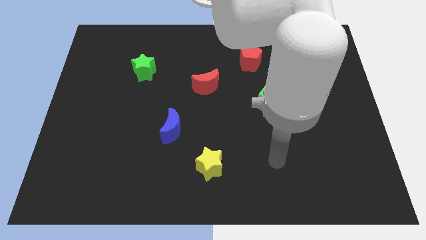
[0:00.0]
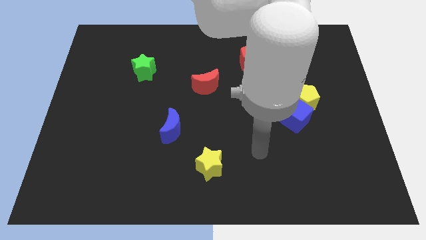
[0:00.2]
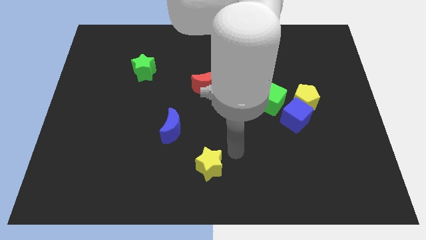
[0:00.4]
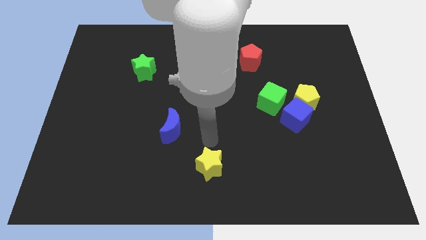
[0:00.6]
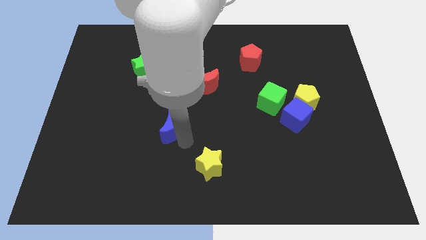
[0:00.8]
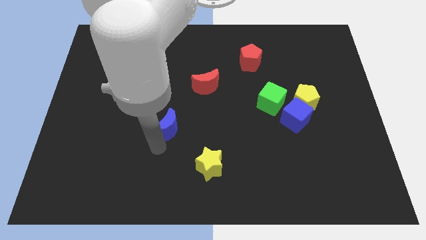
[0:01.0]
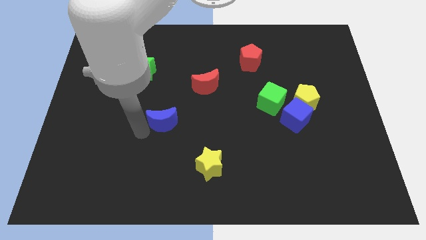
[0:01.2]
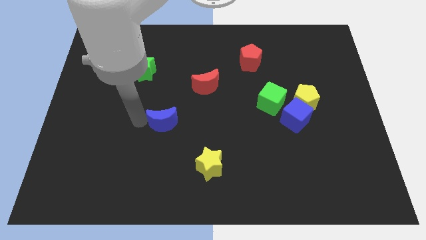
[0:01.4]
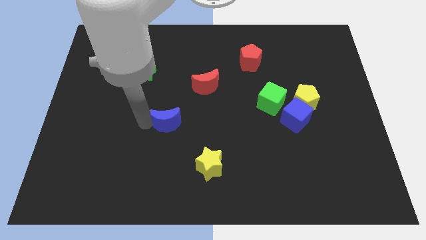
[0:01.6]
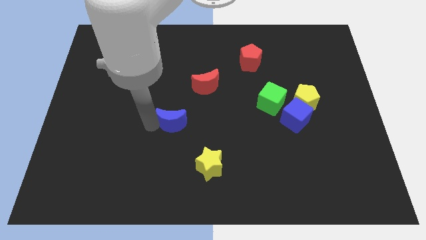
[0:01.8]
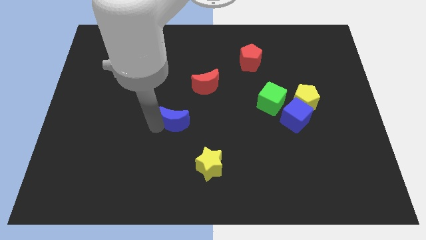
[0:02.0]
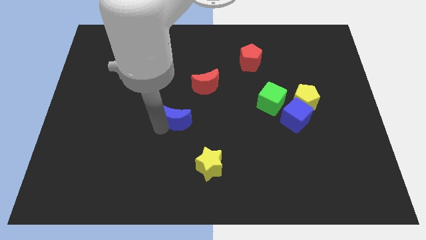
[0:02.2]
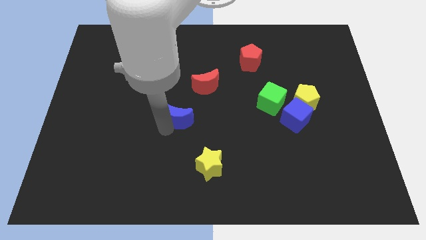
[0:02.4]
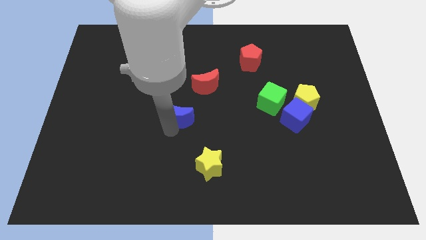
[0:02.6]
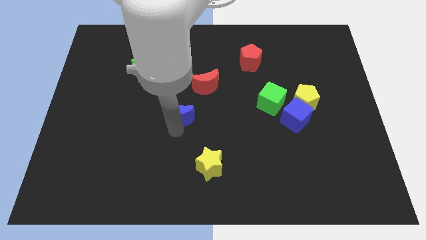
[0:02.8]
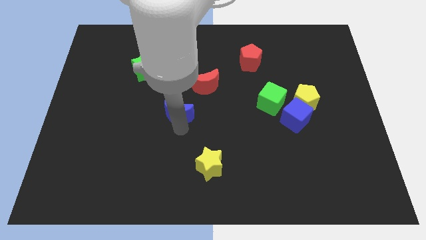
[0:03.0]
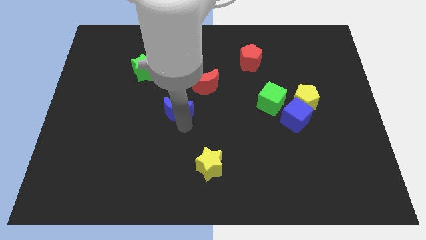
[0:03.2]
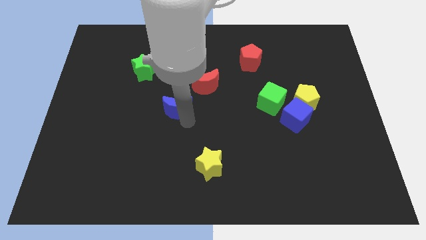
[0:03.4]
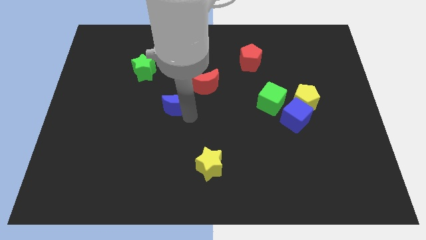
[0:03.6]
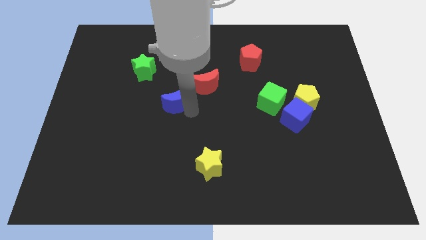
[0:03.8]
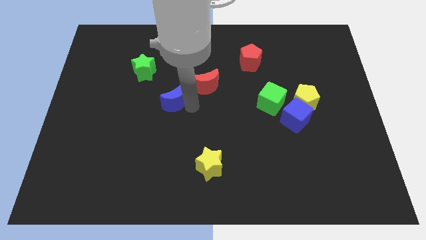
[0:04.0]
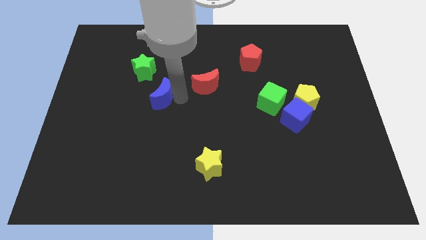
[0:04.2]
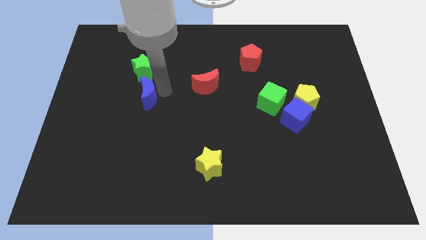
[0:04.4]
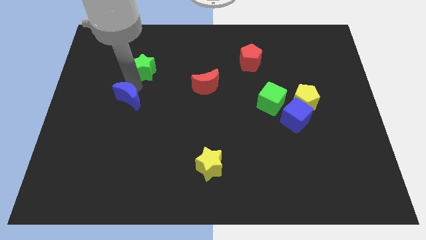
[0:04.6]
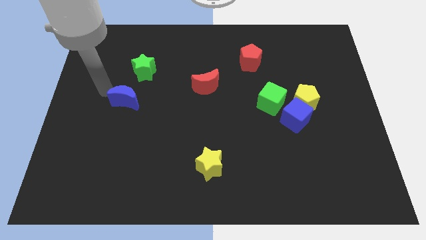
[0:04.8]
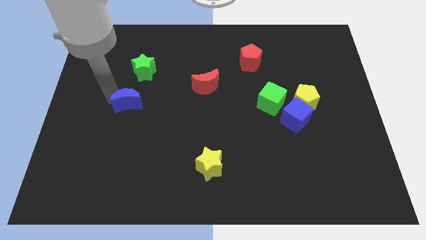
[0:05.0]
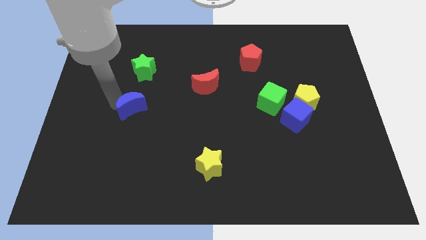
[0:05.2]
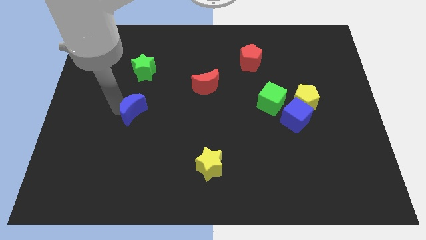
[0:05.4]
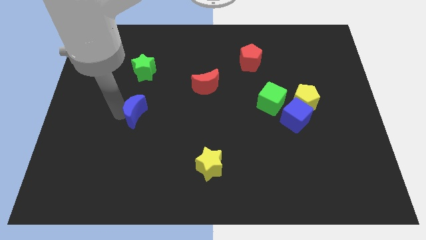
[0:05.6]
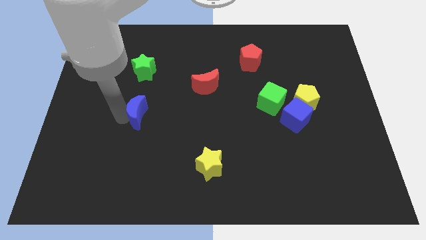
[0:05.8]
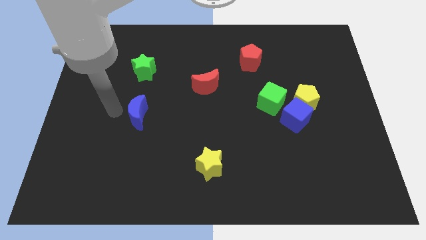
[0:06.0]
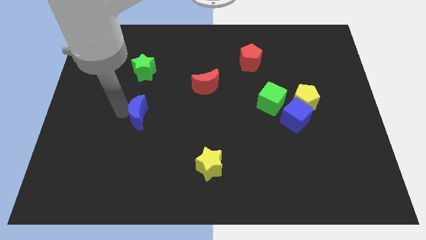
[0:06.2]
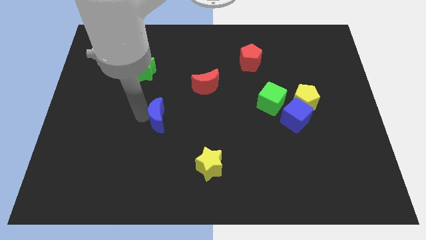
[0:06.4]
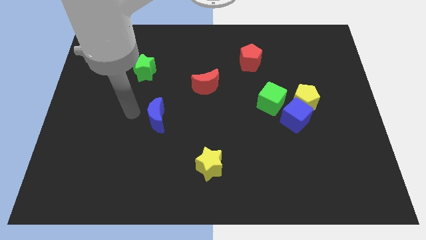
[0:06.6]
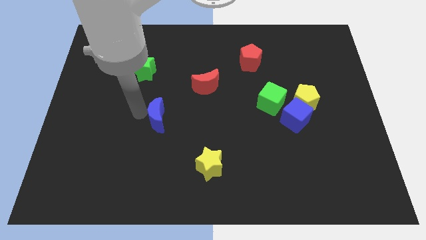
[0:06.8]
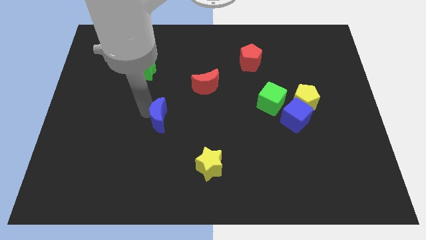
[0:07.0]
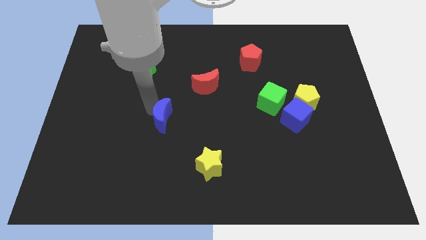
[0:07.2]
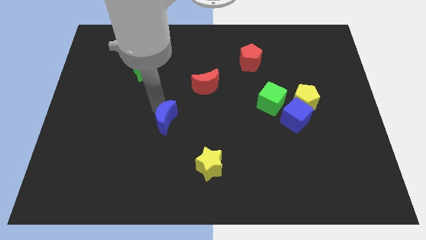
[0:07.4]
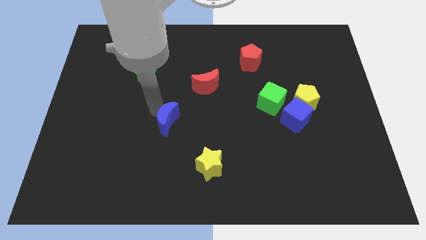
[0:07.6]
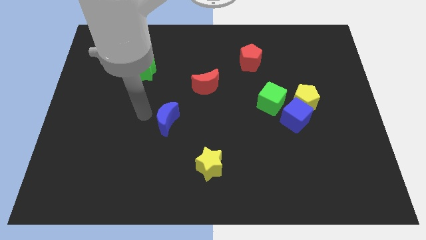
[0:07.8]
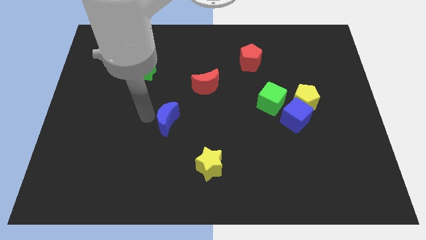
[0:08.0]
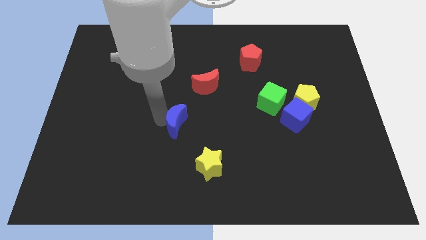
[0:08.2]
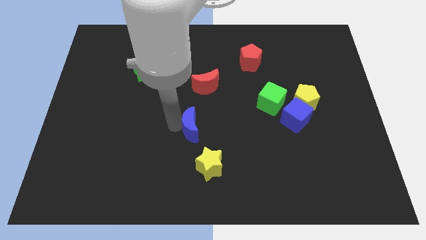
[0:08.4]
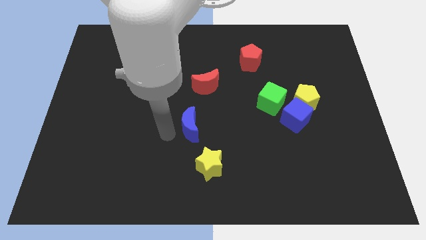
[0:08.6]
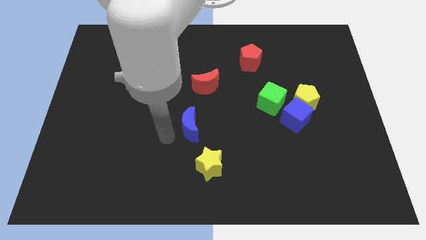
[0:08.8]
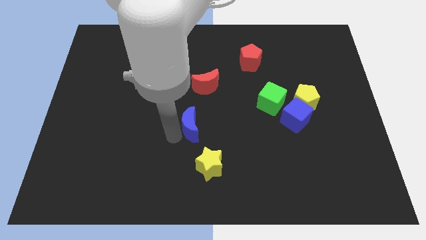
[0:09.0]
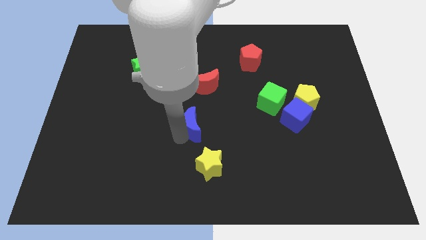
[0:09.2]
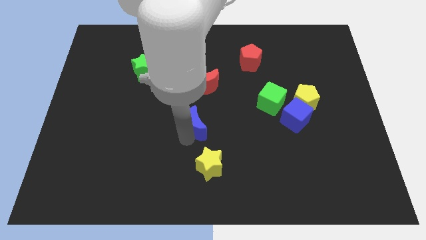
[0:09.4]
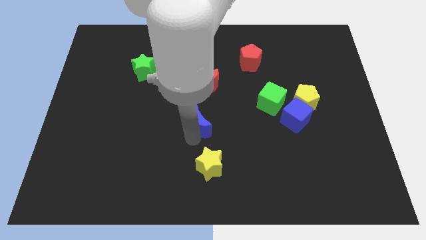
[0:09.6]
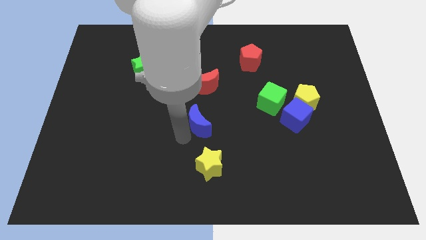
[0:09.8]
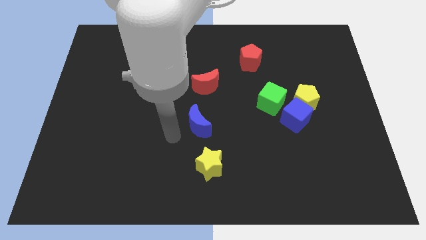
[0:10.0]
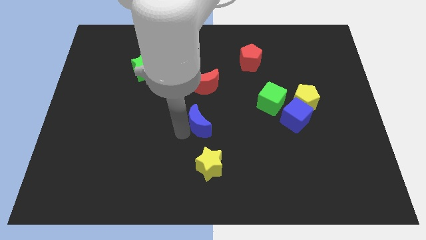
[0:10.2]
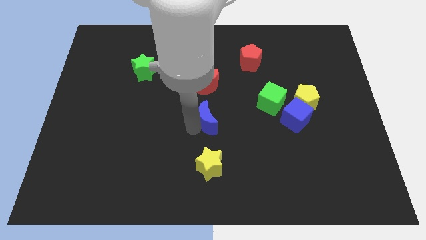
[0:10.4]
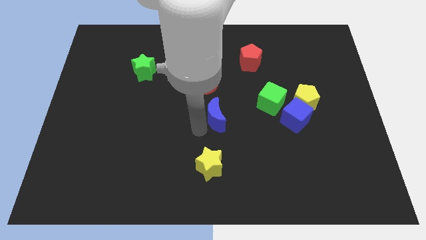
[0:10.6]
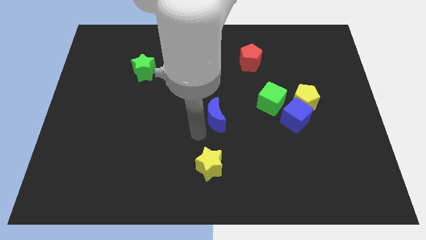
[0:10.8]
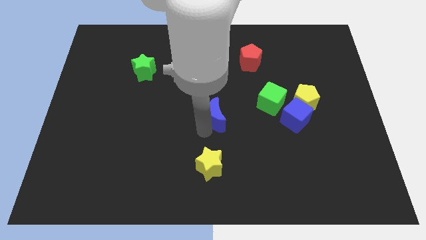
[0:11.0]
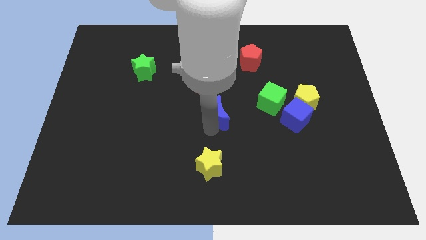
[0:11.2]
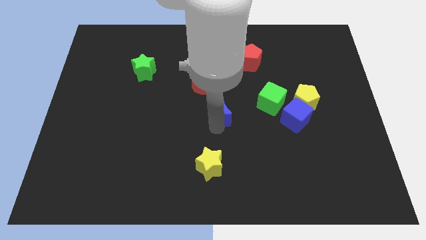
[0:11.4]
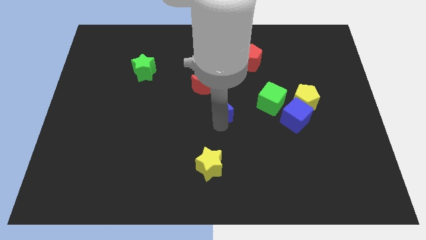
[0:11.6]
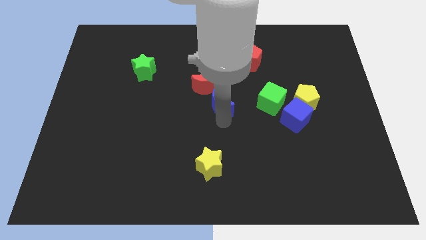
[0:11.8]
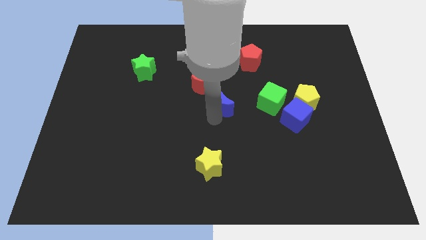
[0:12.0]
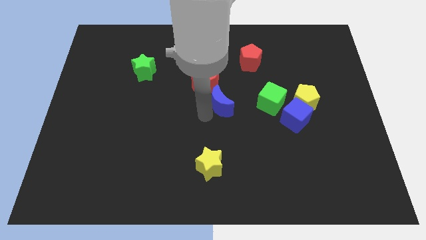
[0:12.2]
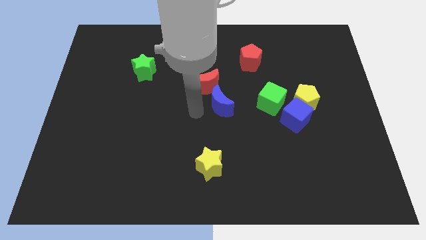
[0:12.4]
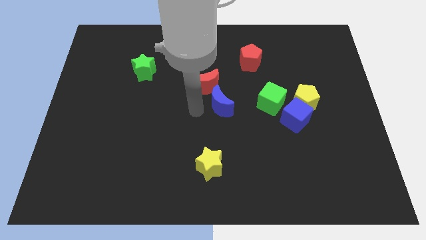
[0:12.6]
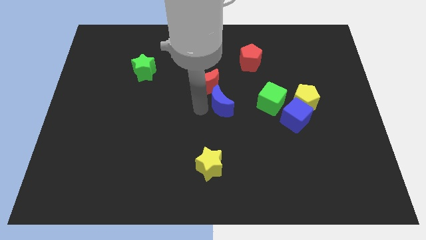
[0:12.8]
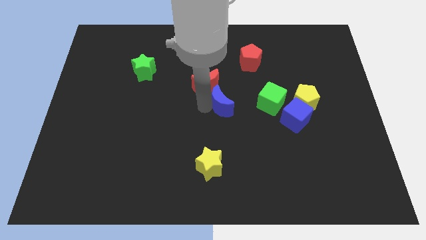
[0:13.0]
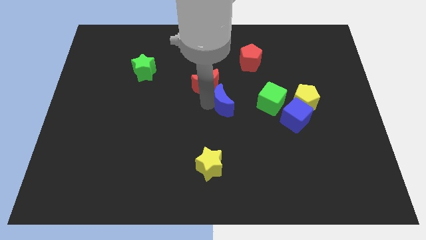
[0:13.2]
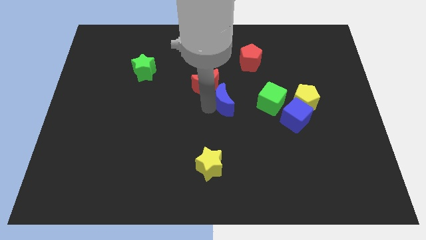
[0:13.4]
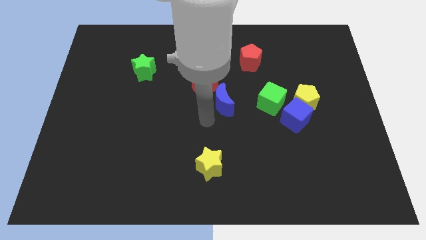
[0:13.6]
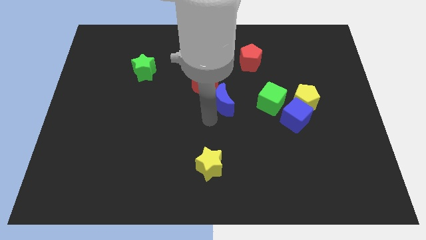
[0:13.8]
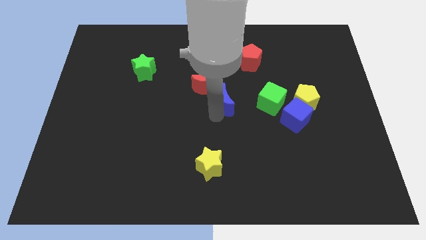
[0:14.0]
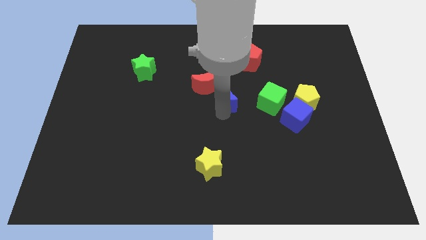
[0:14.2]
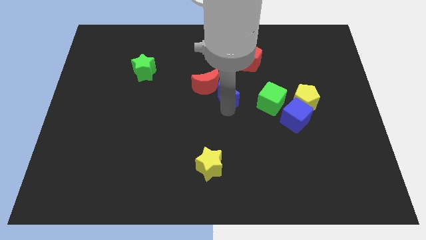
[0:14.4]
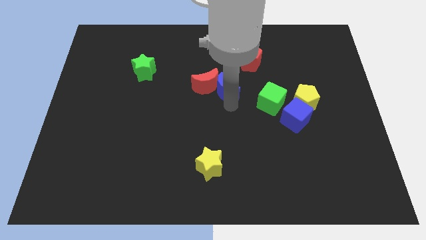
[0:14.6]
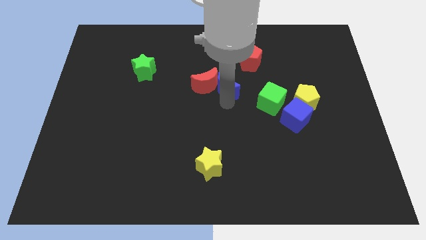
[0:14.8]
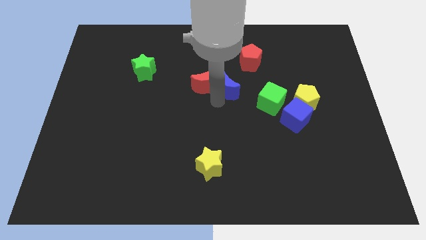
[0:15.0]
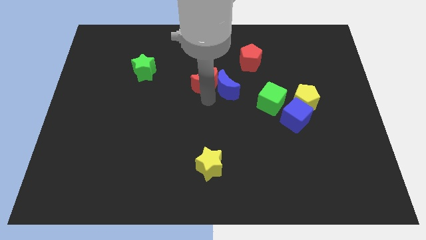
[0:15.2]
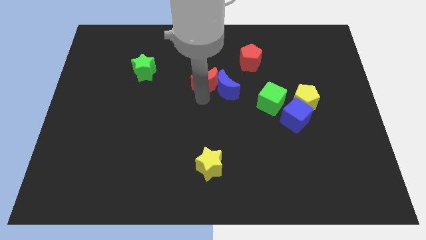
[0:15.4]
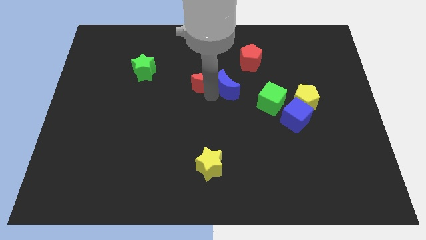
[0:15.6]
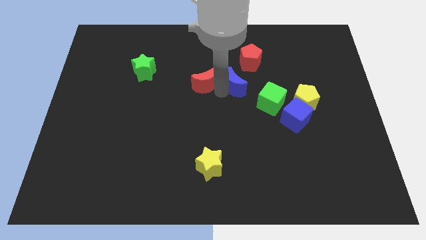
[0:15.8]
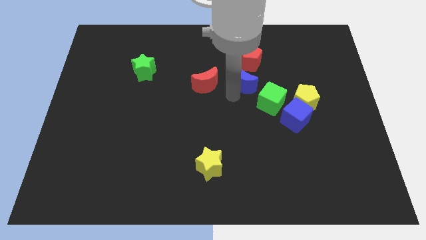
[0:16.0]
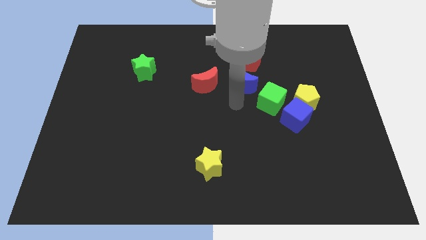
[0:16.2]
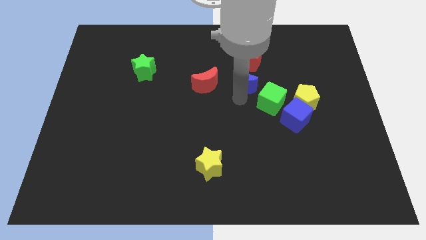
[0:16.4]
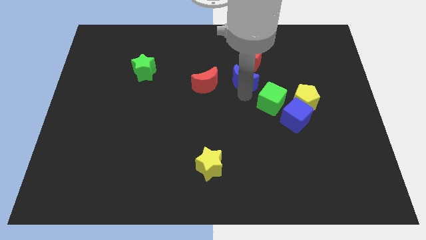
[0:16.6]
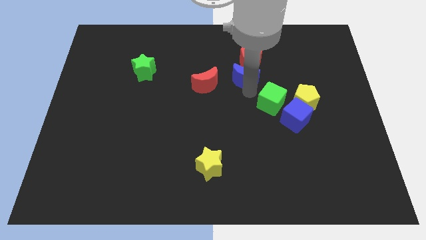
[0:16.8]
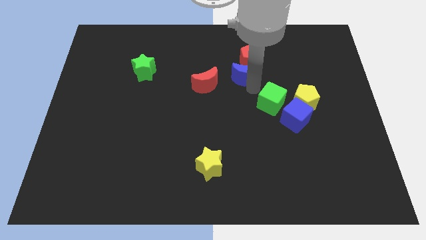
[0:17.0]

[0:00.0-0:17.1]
slide the blue moon to the red pentagon
